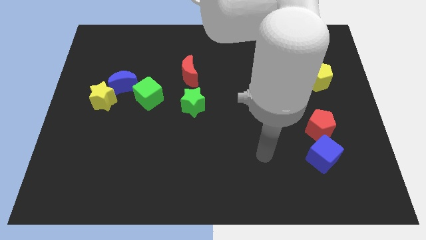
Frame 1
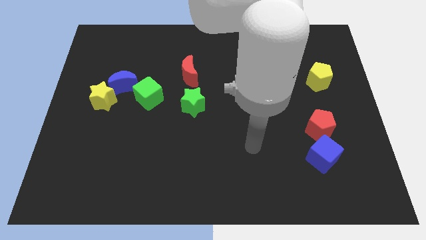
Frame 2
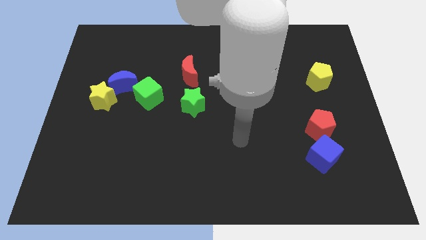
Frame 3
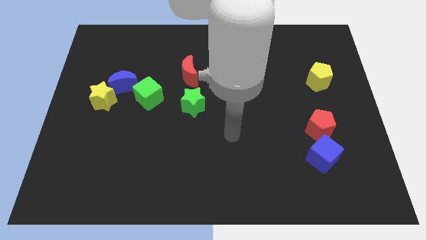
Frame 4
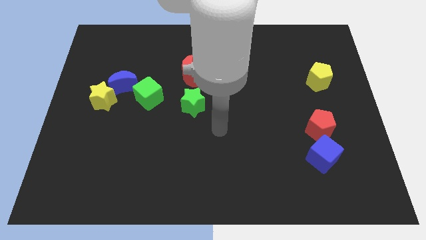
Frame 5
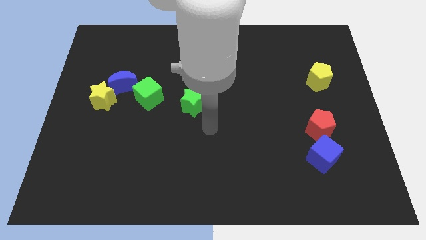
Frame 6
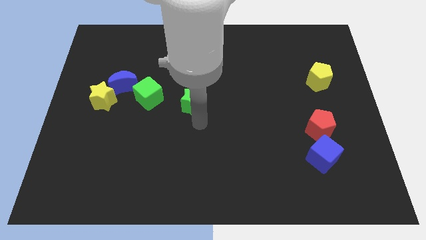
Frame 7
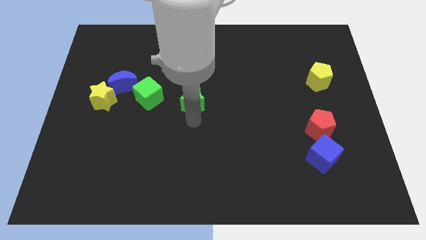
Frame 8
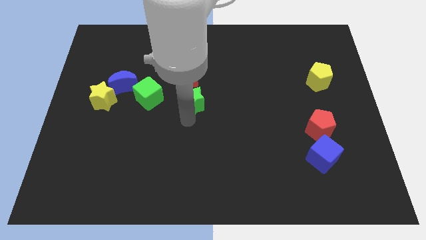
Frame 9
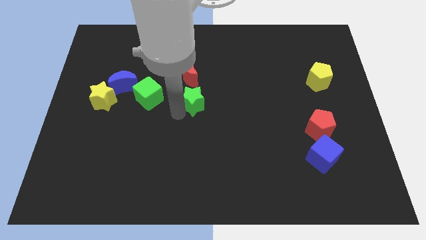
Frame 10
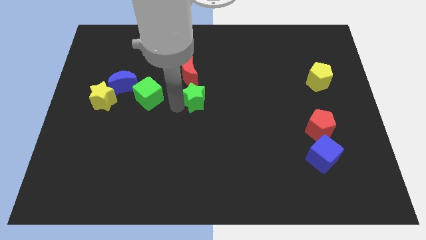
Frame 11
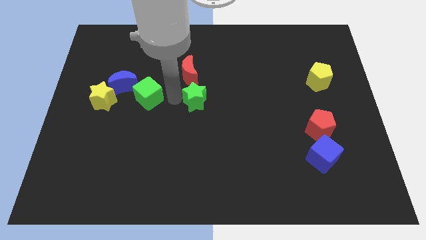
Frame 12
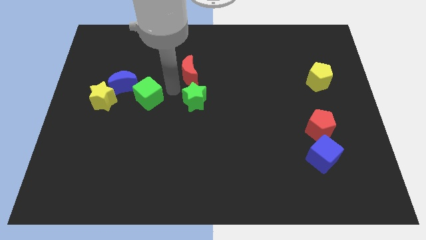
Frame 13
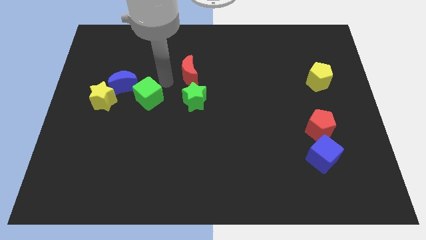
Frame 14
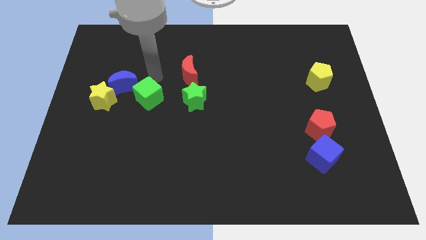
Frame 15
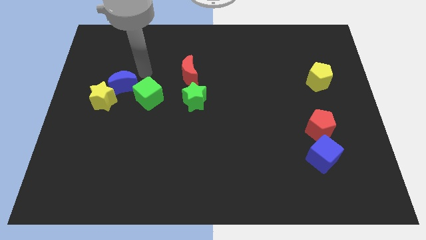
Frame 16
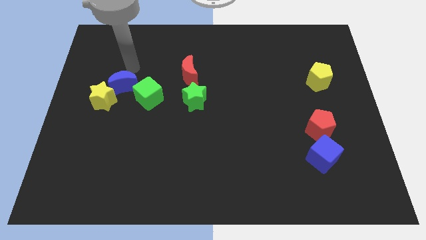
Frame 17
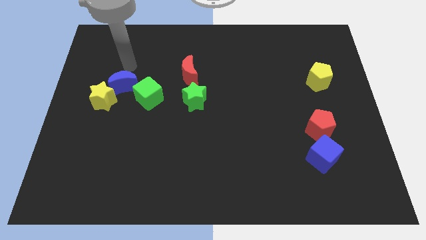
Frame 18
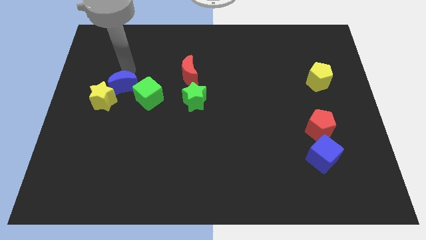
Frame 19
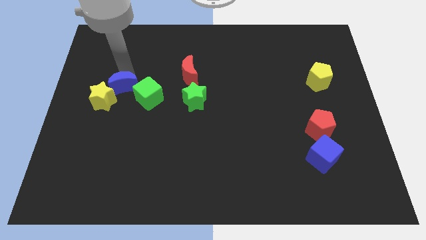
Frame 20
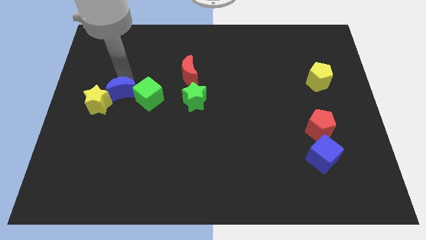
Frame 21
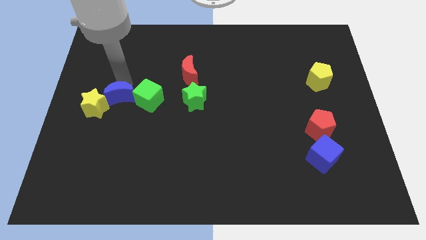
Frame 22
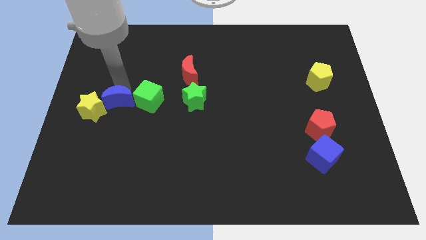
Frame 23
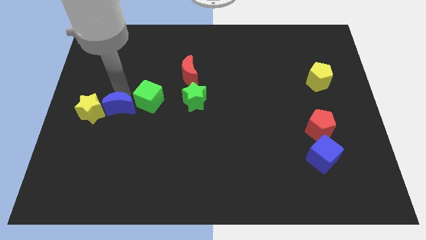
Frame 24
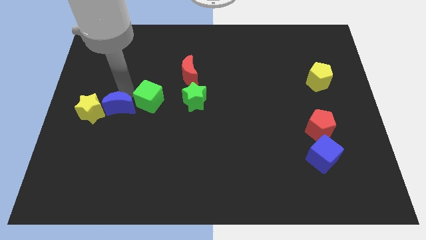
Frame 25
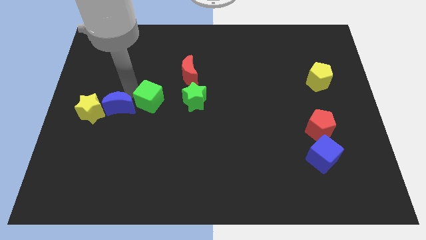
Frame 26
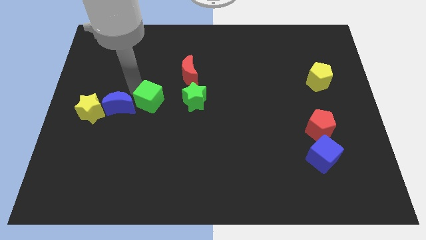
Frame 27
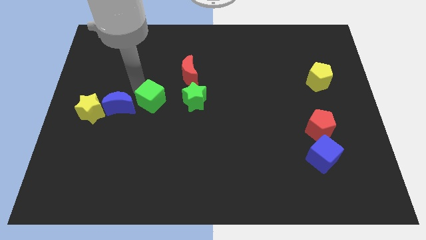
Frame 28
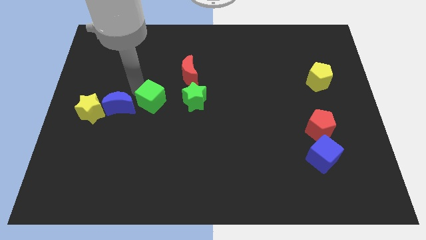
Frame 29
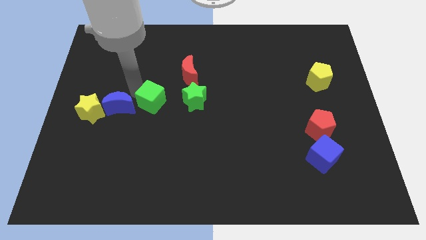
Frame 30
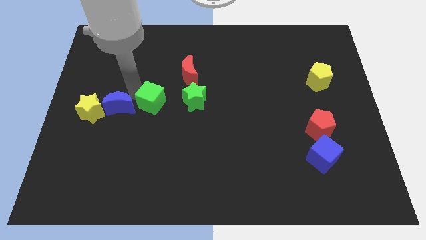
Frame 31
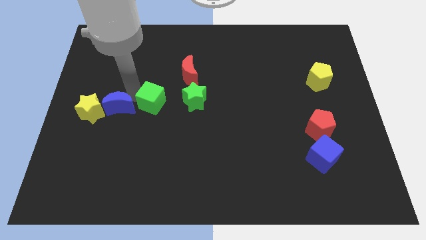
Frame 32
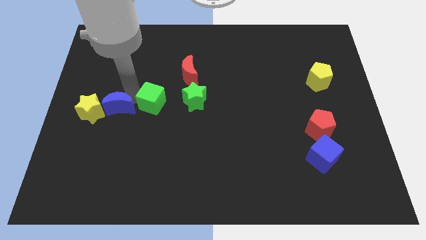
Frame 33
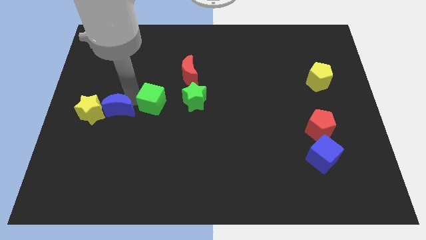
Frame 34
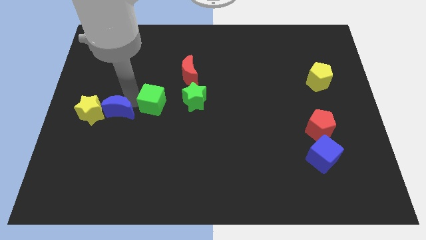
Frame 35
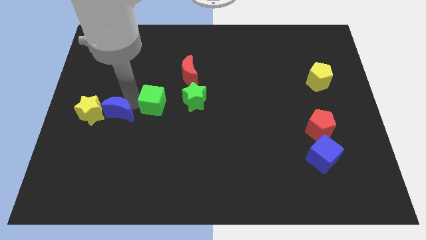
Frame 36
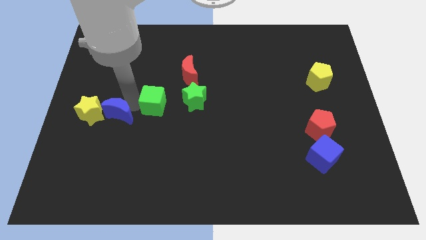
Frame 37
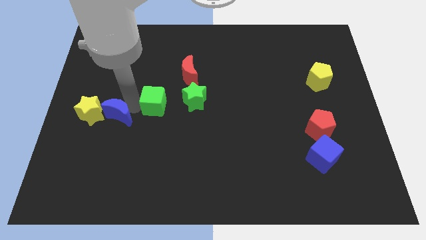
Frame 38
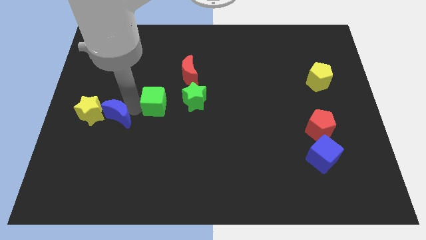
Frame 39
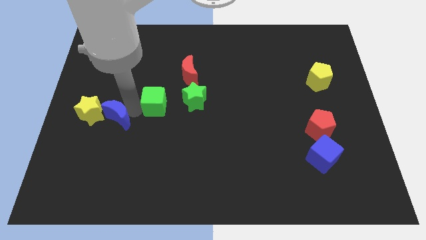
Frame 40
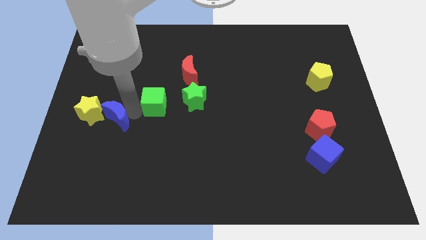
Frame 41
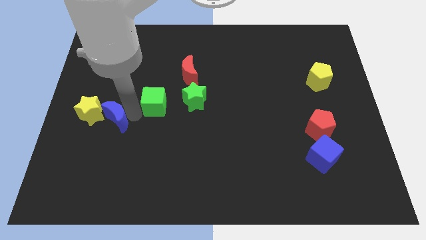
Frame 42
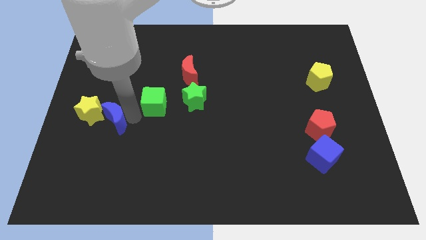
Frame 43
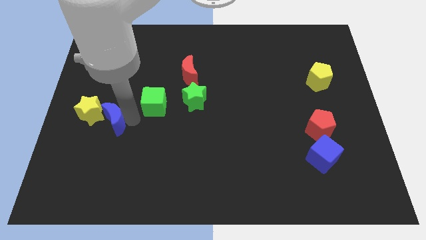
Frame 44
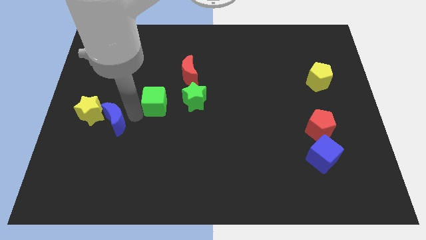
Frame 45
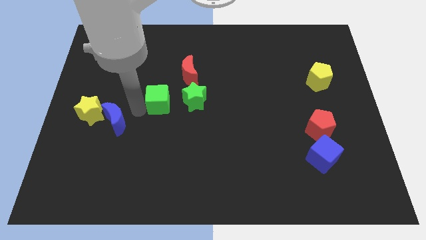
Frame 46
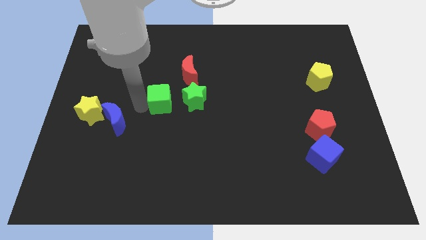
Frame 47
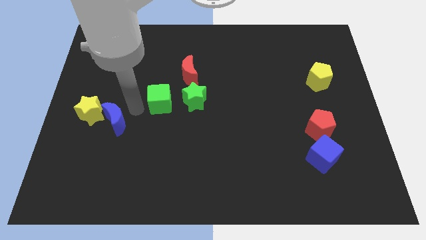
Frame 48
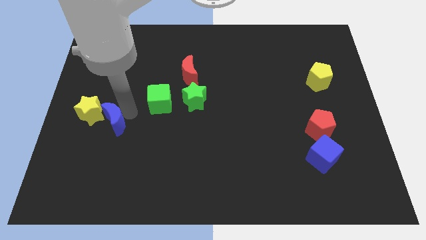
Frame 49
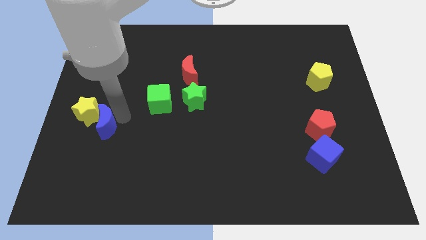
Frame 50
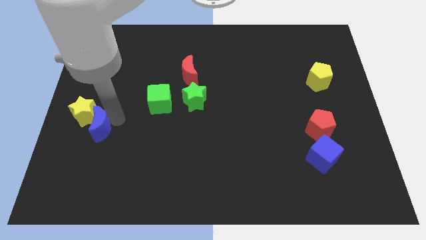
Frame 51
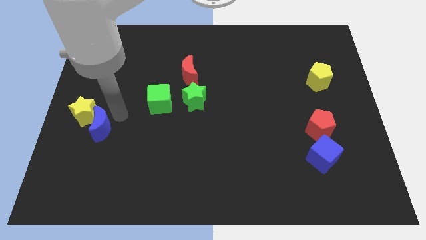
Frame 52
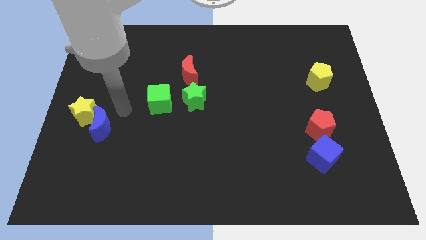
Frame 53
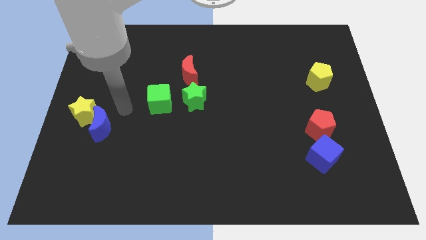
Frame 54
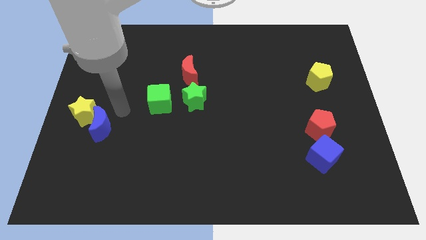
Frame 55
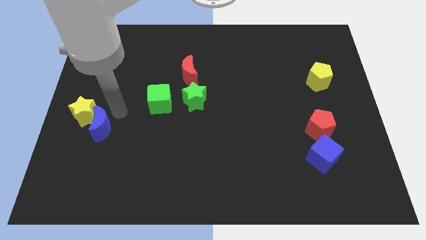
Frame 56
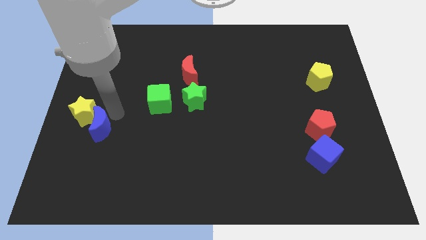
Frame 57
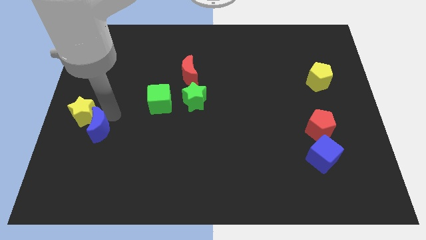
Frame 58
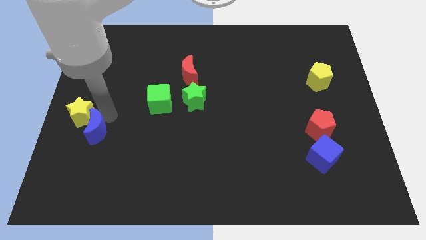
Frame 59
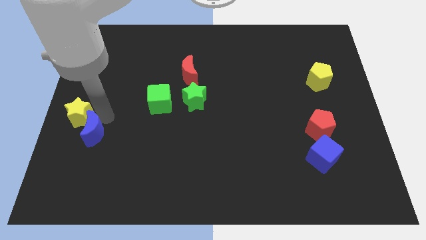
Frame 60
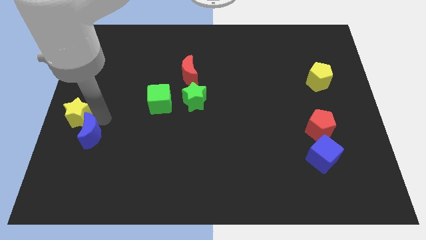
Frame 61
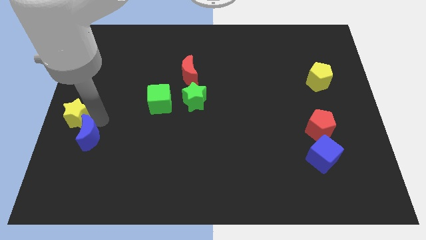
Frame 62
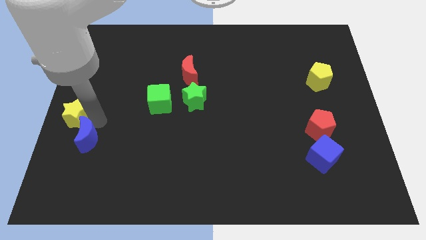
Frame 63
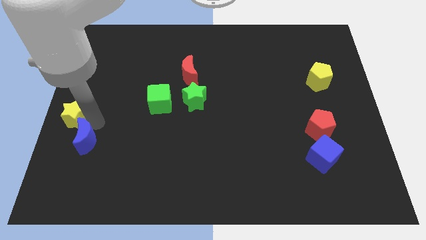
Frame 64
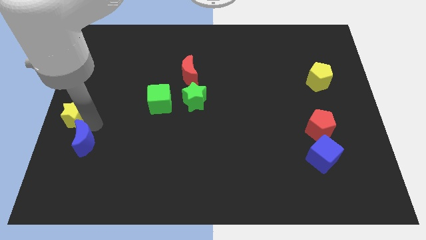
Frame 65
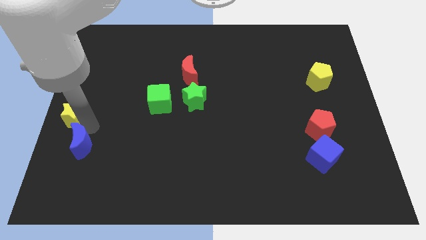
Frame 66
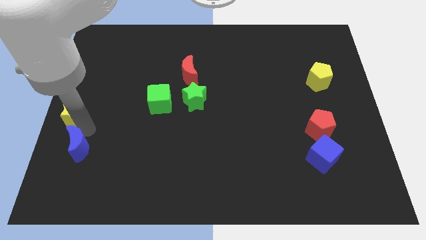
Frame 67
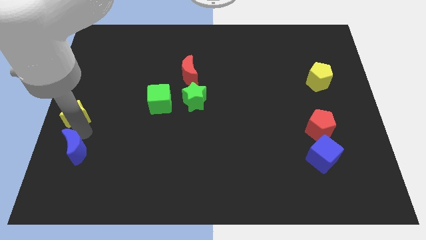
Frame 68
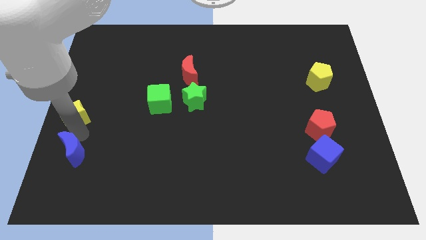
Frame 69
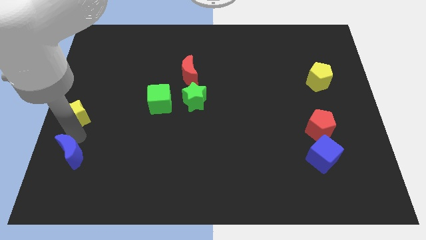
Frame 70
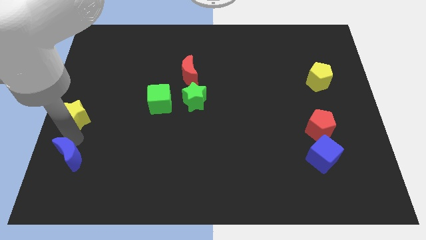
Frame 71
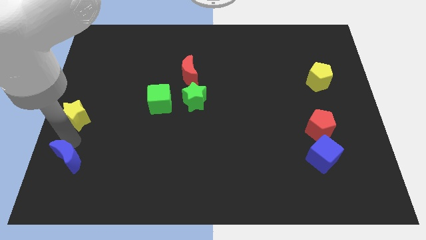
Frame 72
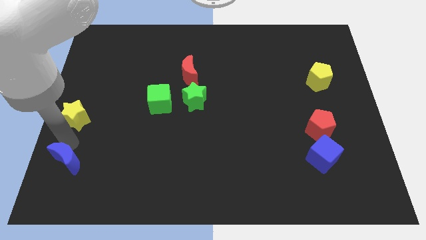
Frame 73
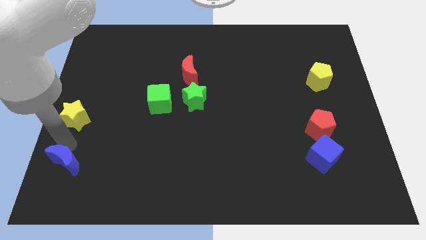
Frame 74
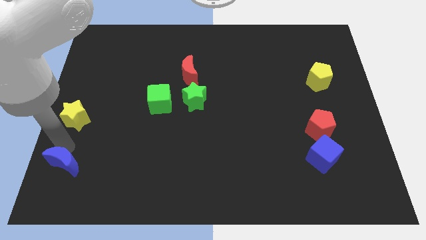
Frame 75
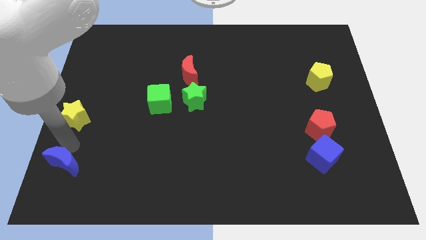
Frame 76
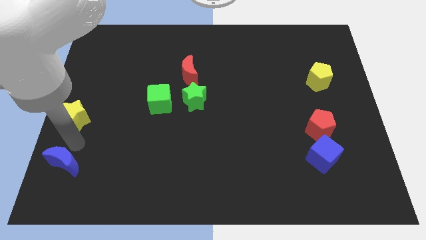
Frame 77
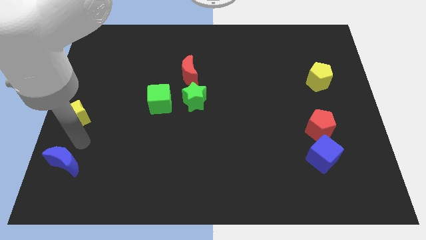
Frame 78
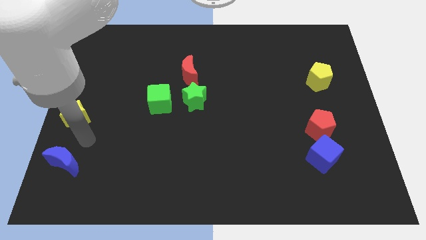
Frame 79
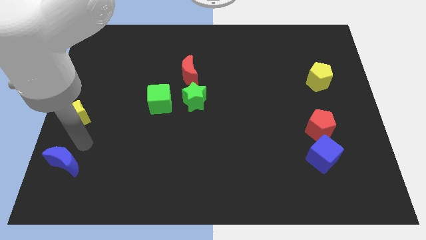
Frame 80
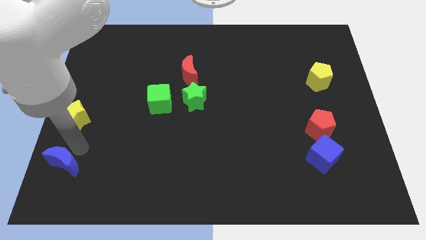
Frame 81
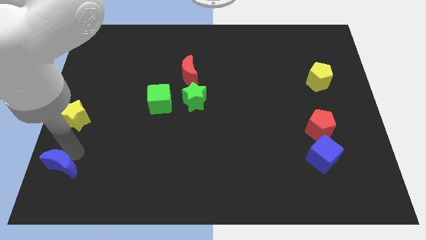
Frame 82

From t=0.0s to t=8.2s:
slide the blue moon to the bottom left of the board
